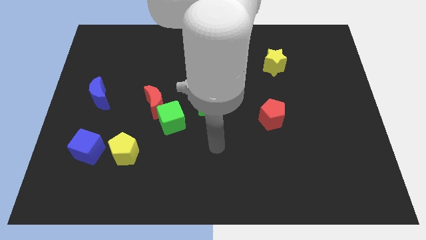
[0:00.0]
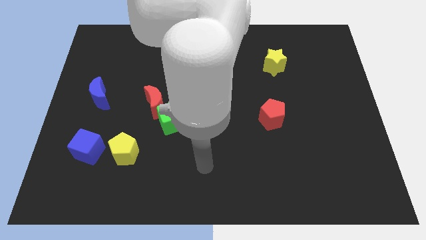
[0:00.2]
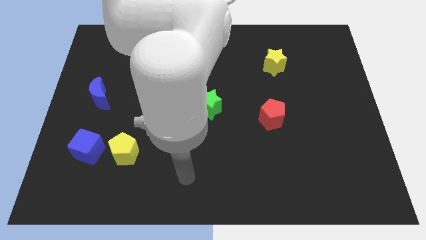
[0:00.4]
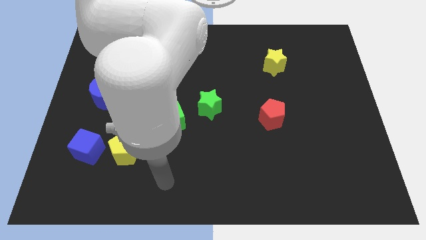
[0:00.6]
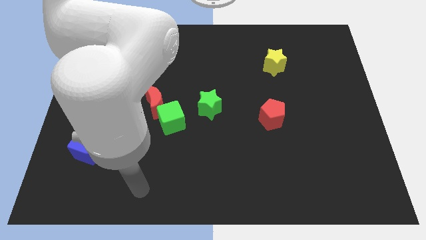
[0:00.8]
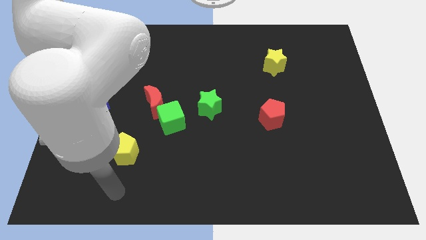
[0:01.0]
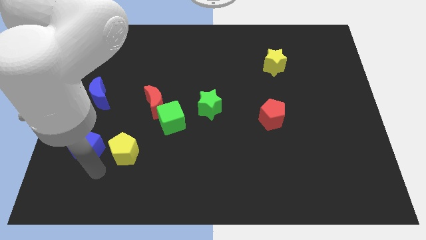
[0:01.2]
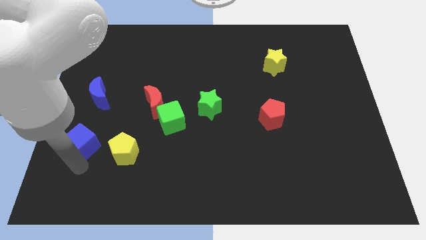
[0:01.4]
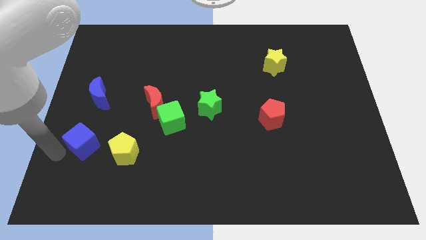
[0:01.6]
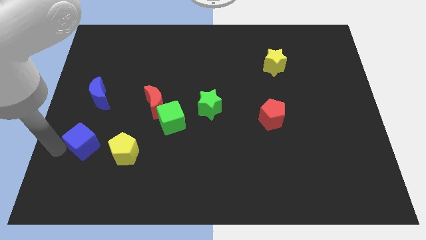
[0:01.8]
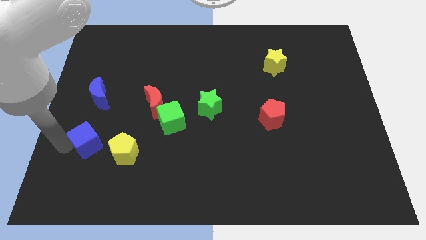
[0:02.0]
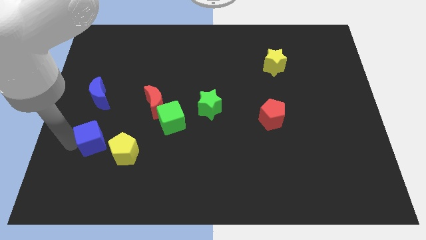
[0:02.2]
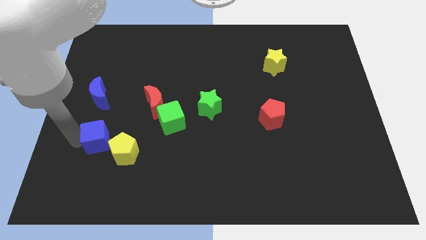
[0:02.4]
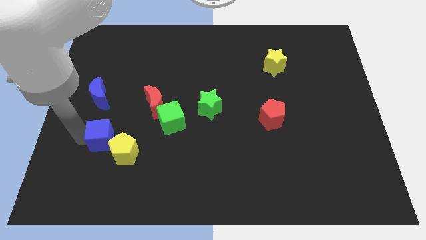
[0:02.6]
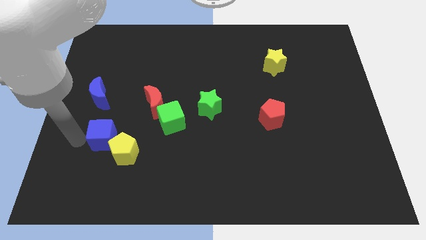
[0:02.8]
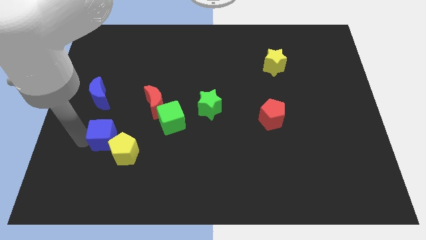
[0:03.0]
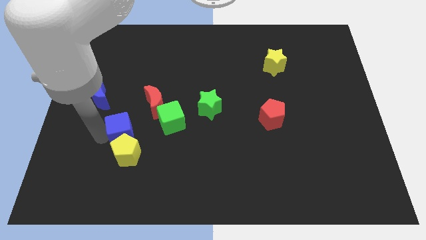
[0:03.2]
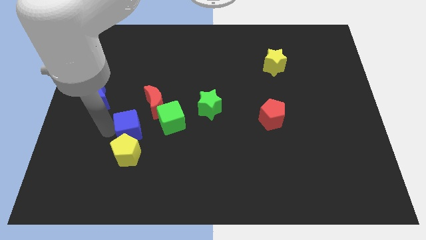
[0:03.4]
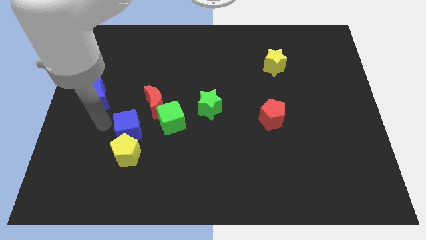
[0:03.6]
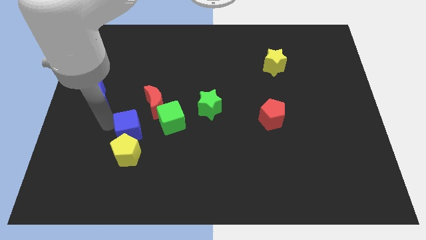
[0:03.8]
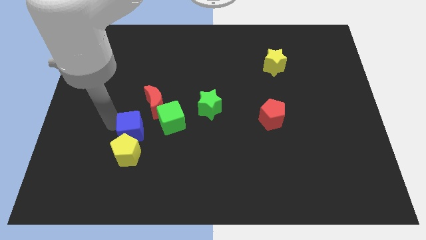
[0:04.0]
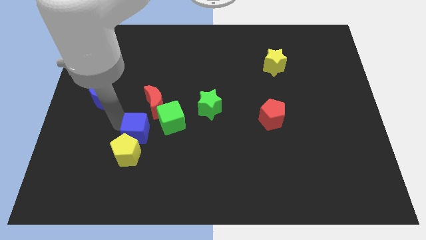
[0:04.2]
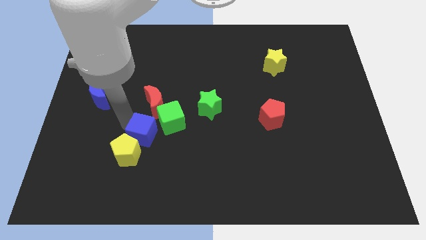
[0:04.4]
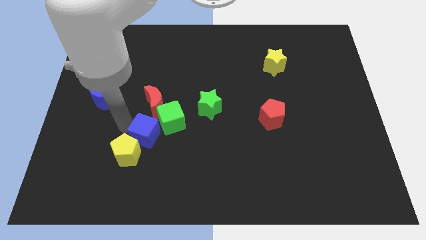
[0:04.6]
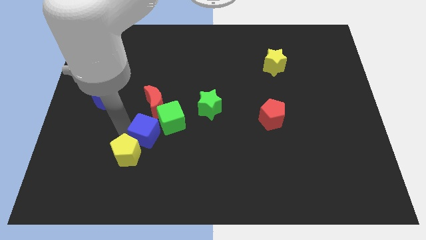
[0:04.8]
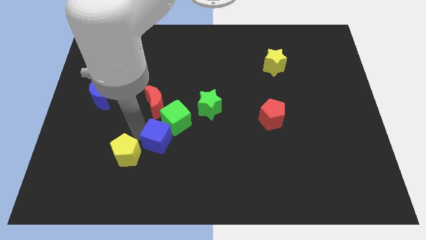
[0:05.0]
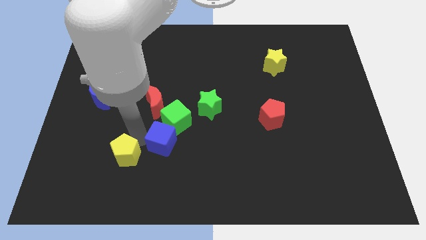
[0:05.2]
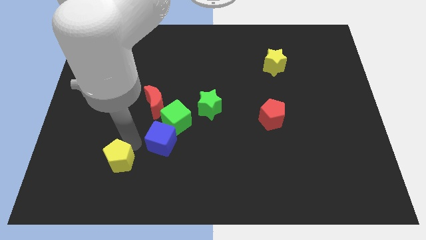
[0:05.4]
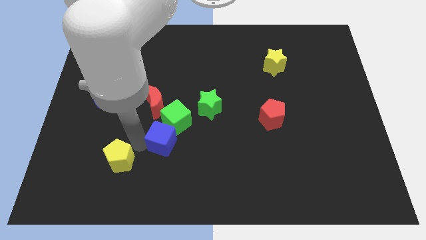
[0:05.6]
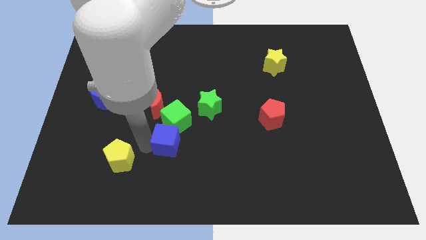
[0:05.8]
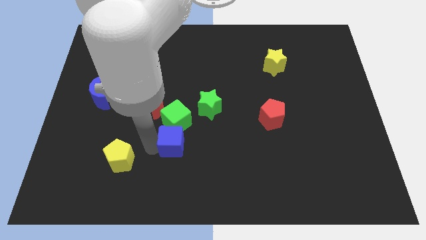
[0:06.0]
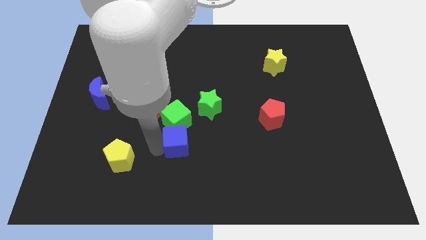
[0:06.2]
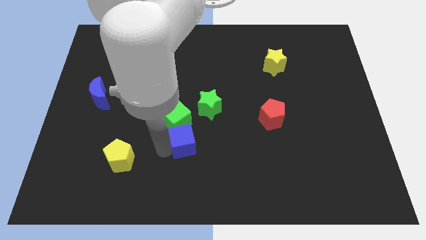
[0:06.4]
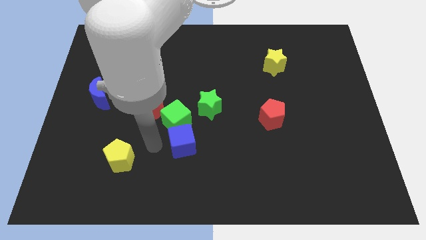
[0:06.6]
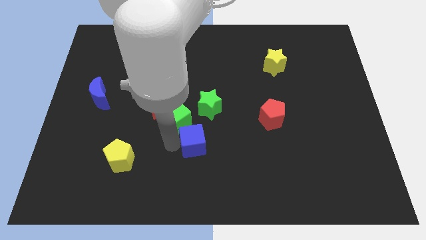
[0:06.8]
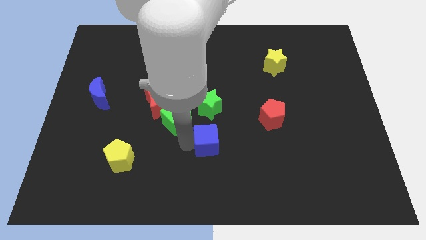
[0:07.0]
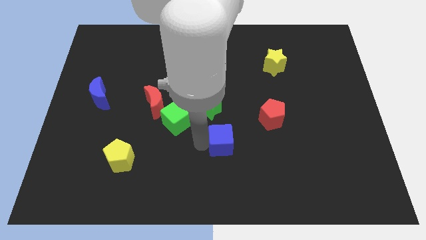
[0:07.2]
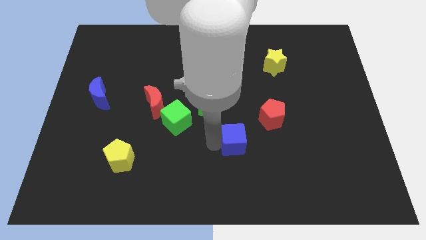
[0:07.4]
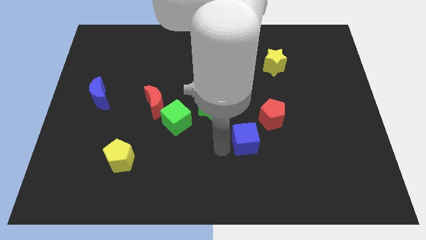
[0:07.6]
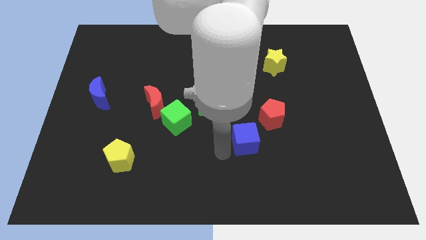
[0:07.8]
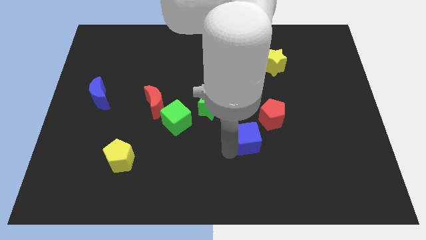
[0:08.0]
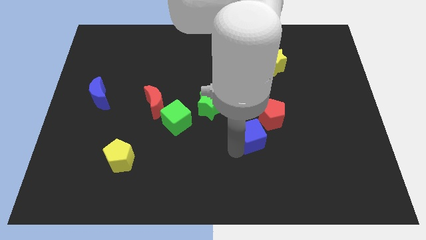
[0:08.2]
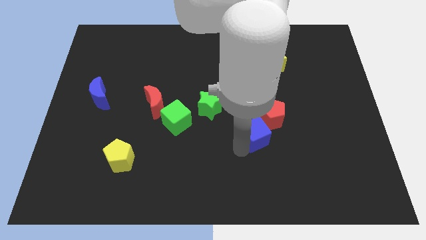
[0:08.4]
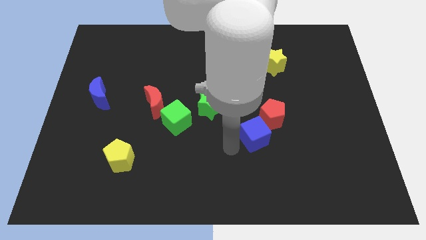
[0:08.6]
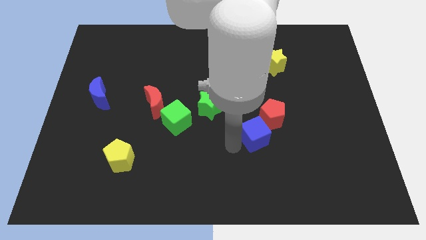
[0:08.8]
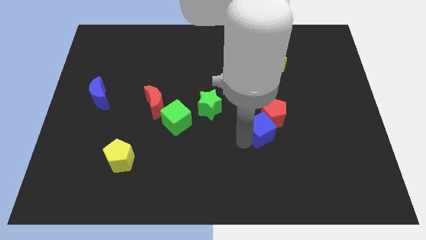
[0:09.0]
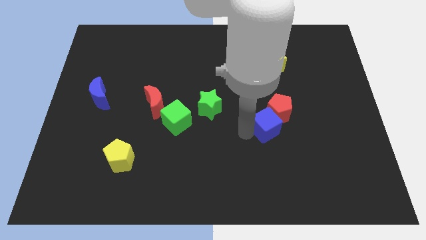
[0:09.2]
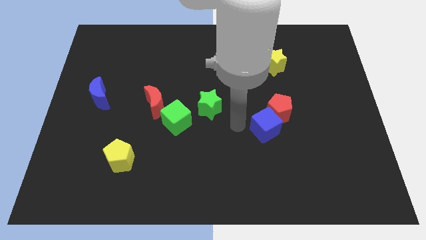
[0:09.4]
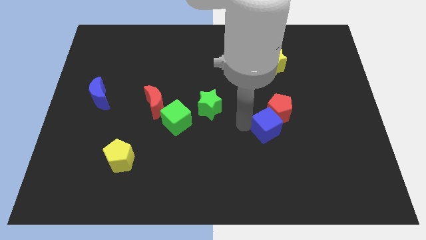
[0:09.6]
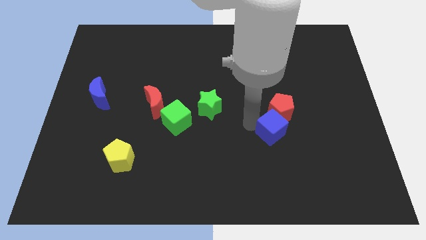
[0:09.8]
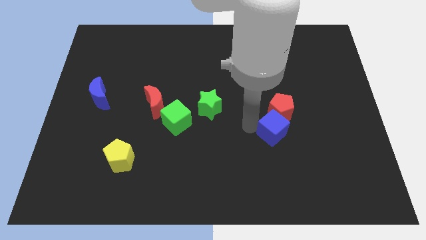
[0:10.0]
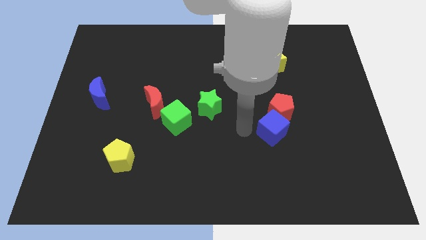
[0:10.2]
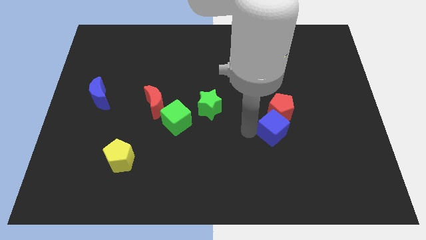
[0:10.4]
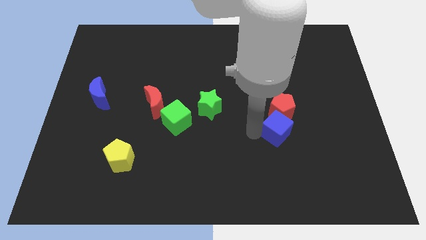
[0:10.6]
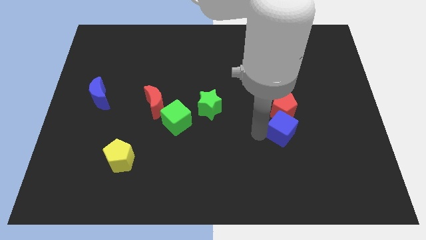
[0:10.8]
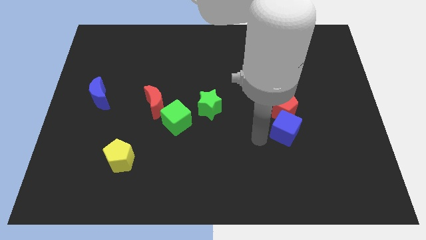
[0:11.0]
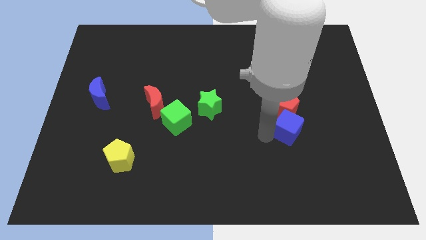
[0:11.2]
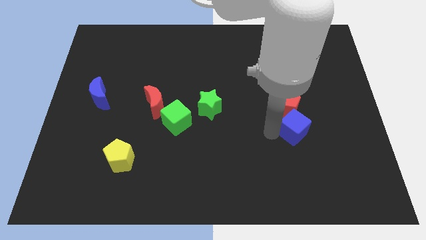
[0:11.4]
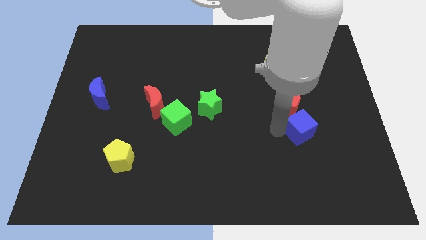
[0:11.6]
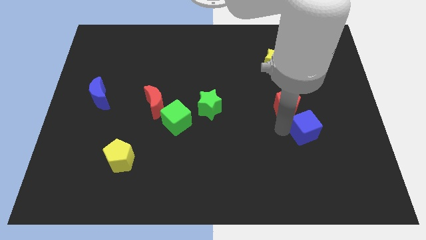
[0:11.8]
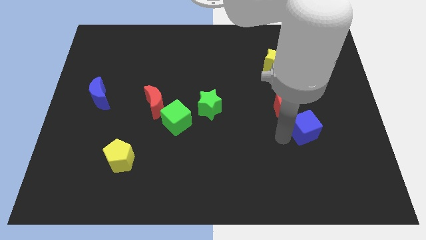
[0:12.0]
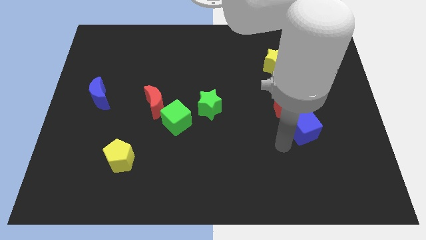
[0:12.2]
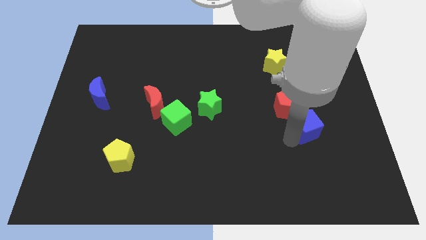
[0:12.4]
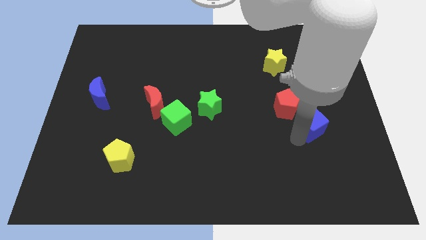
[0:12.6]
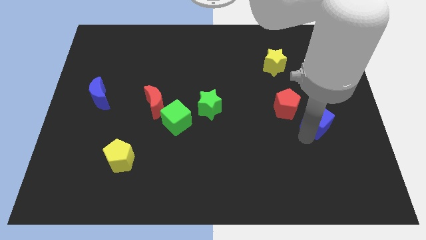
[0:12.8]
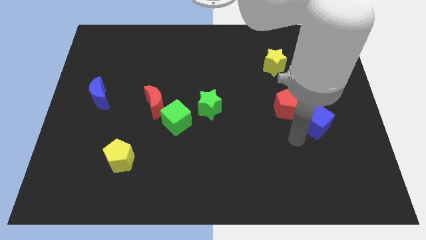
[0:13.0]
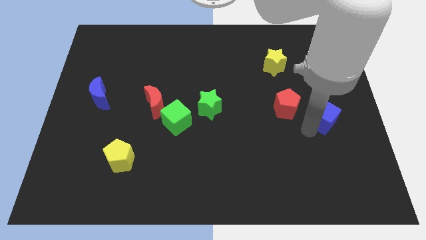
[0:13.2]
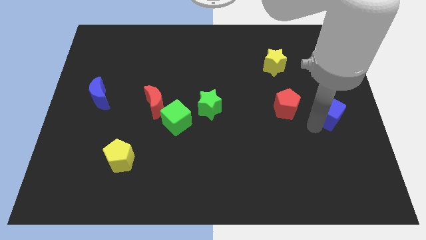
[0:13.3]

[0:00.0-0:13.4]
move the blue cube to the center right

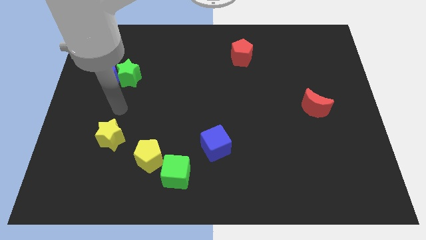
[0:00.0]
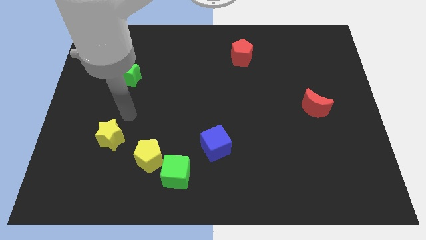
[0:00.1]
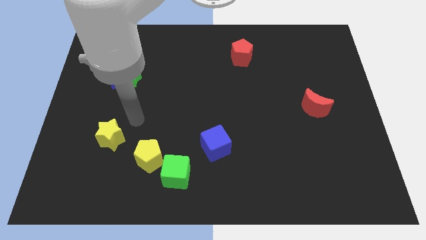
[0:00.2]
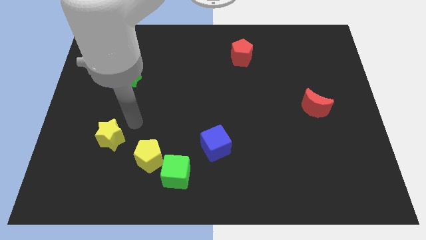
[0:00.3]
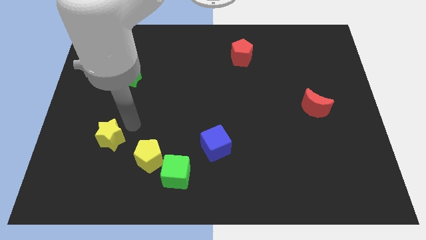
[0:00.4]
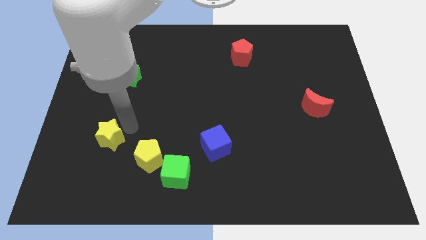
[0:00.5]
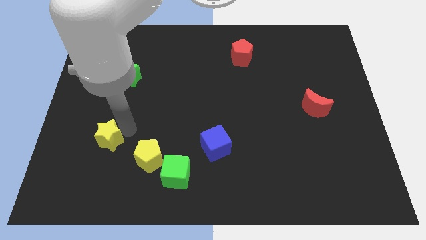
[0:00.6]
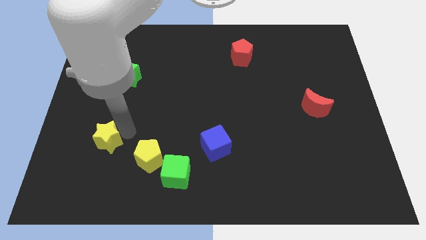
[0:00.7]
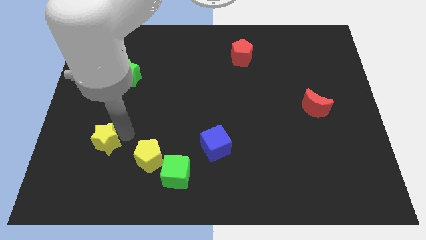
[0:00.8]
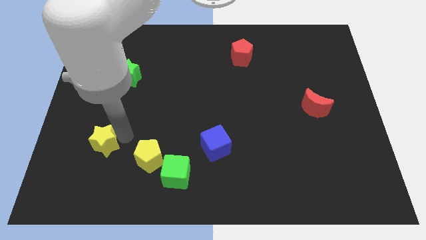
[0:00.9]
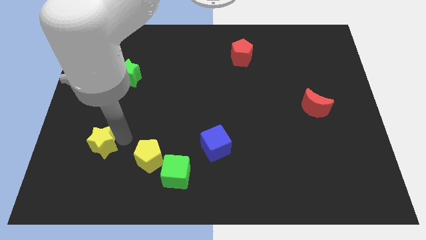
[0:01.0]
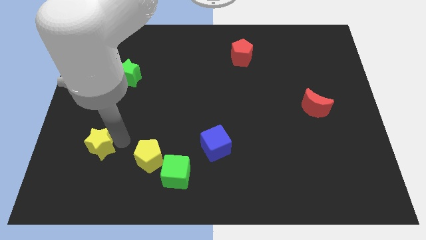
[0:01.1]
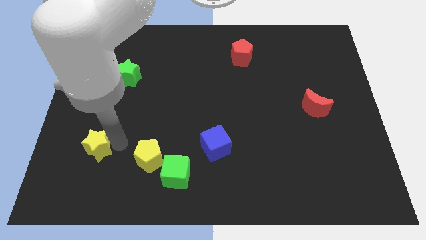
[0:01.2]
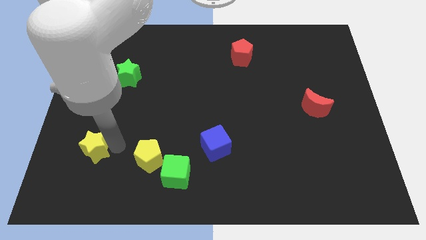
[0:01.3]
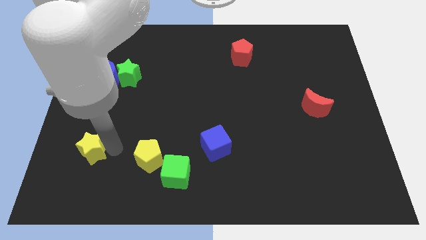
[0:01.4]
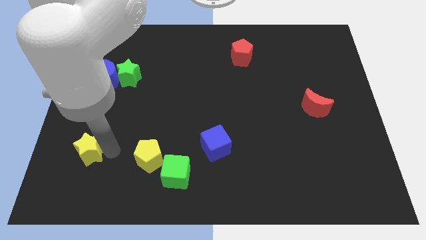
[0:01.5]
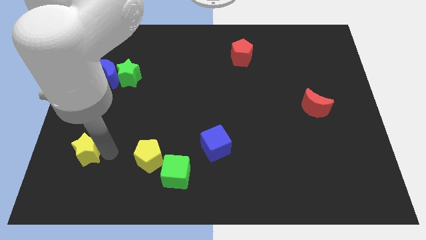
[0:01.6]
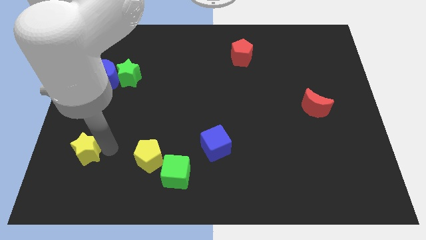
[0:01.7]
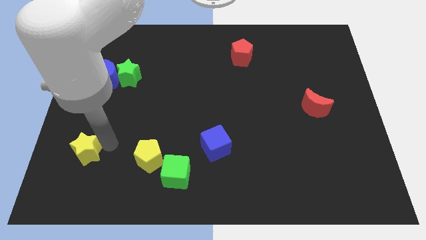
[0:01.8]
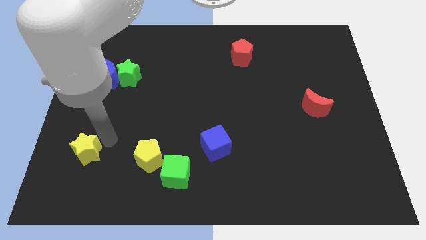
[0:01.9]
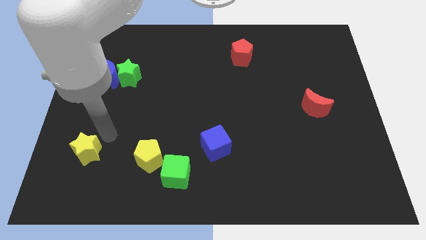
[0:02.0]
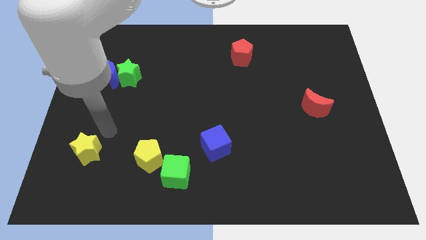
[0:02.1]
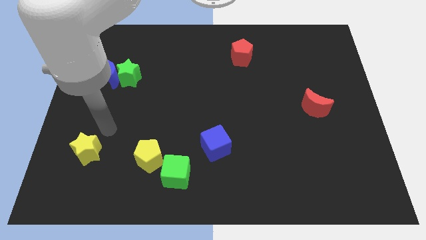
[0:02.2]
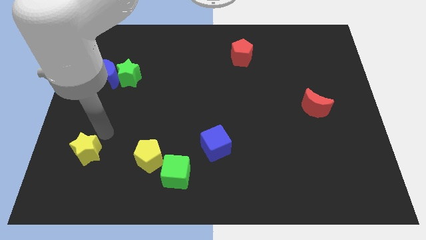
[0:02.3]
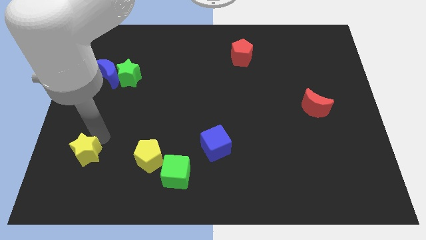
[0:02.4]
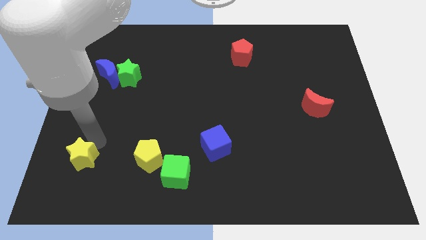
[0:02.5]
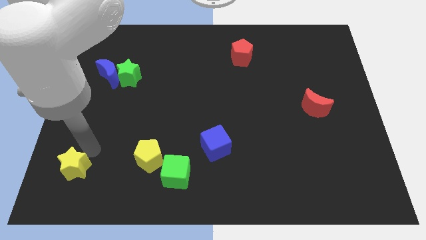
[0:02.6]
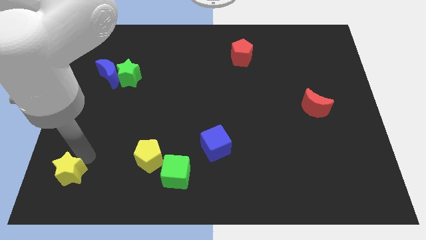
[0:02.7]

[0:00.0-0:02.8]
slide the yellow star to the lower left corner
